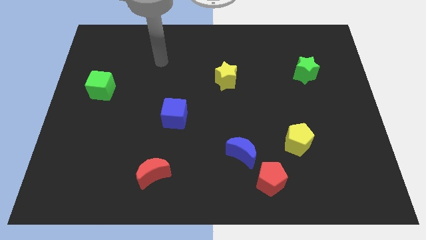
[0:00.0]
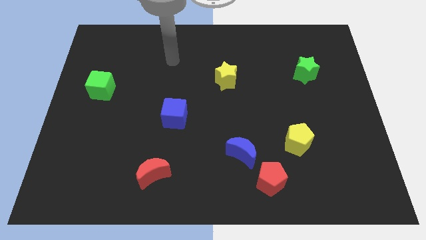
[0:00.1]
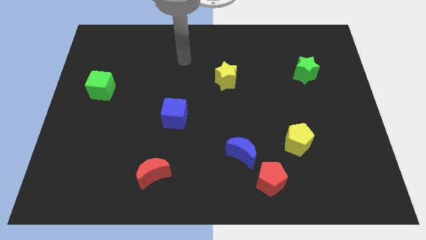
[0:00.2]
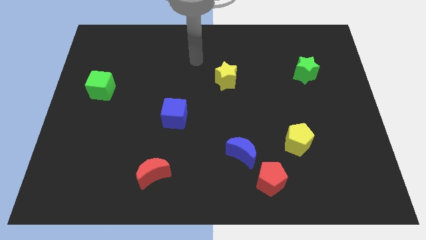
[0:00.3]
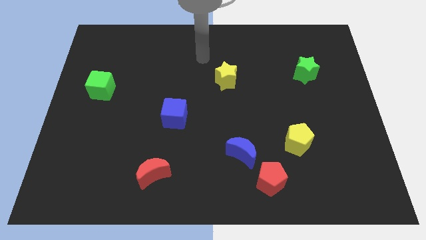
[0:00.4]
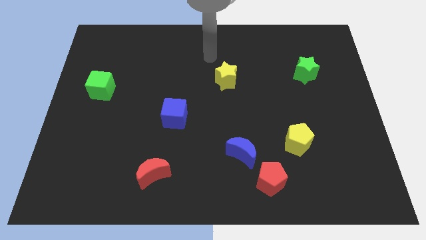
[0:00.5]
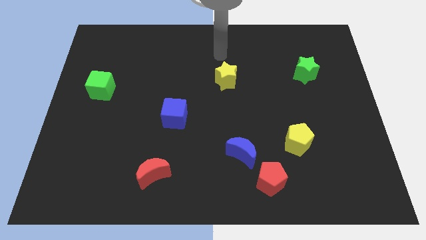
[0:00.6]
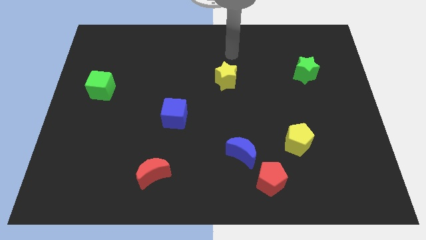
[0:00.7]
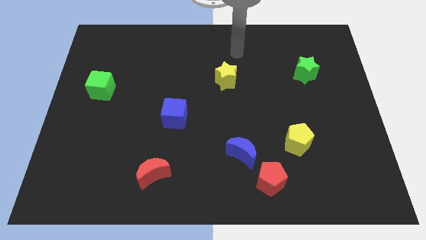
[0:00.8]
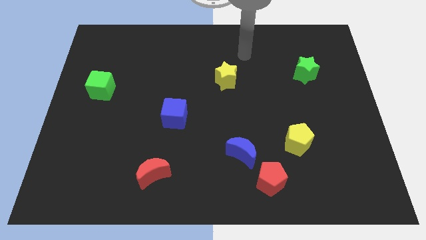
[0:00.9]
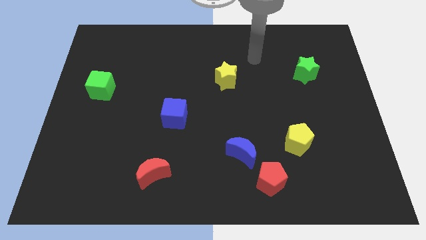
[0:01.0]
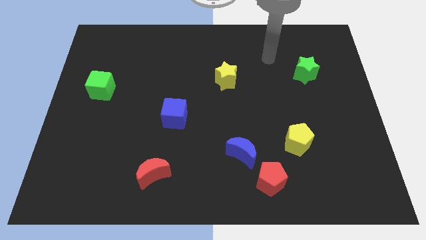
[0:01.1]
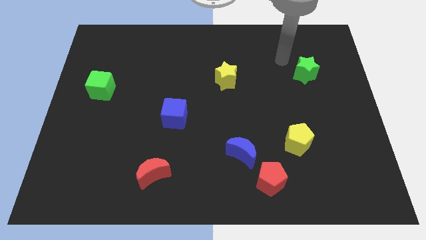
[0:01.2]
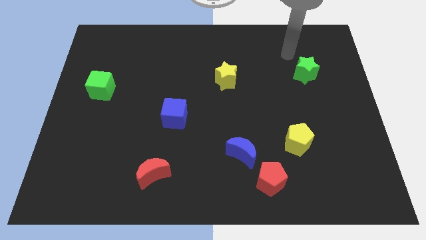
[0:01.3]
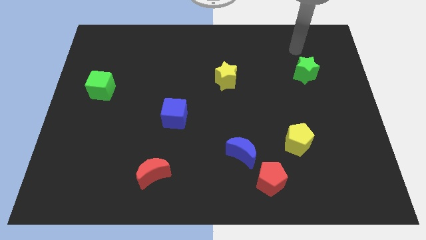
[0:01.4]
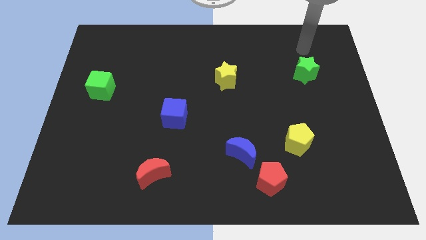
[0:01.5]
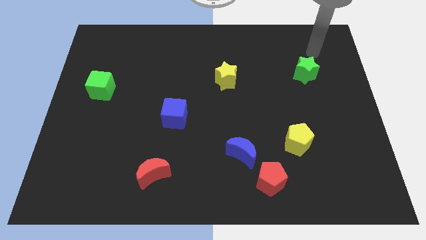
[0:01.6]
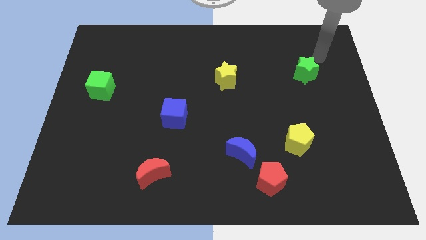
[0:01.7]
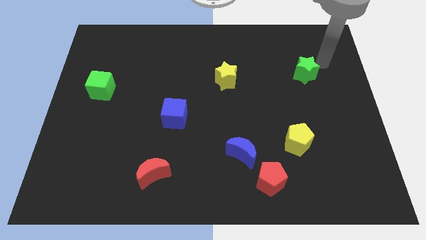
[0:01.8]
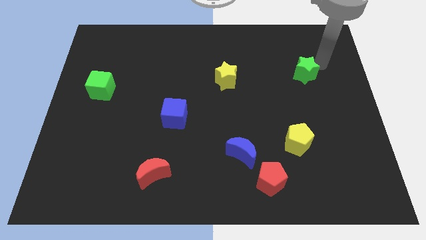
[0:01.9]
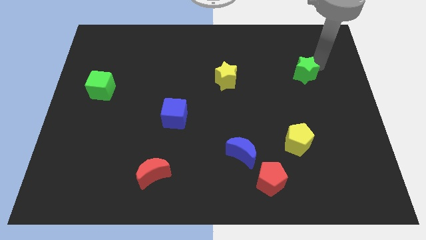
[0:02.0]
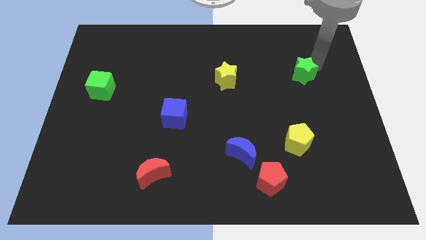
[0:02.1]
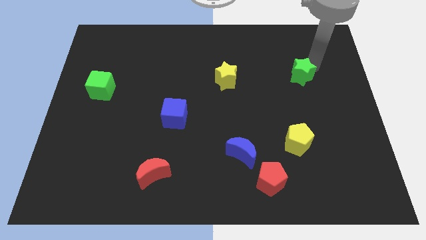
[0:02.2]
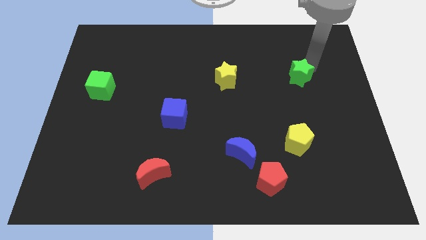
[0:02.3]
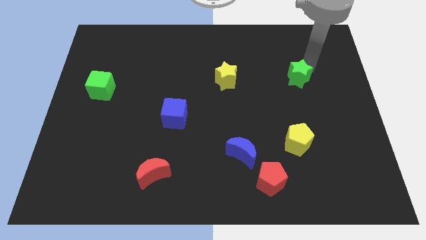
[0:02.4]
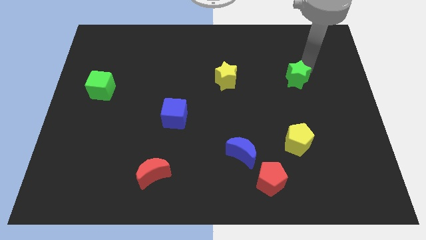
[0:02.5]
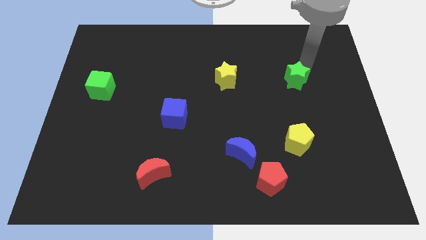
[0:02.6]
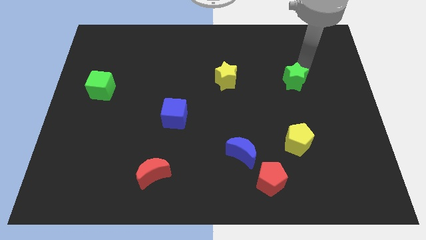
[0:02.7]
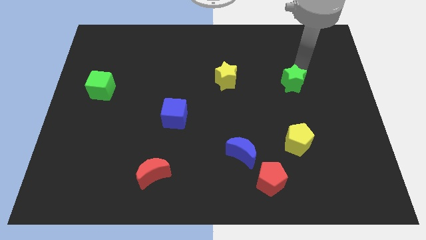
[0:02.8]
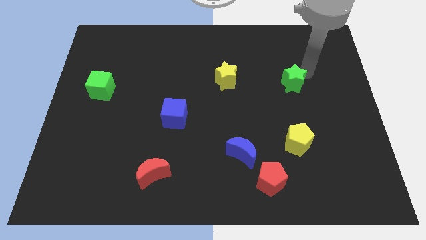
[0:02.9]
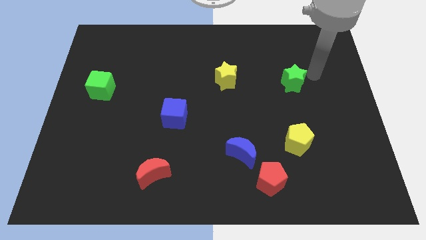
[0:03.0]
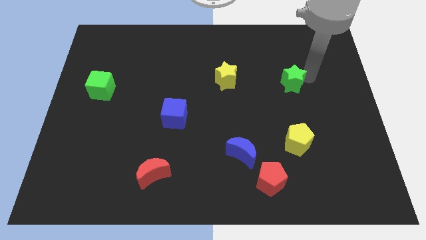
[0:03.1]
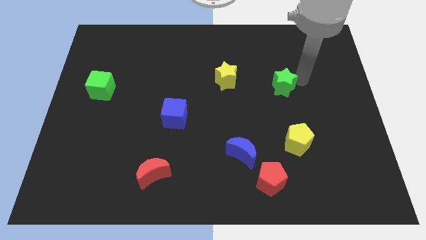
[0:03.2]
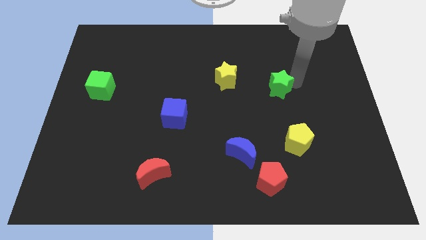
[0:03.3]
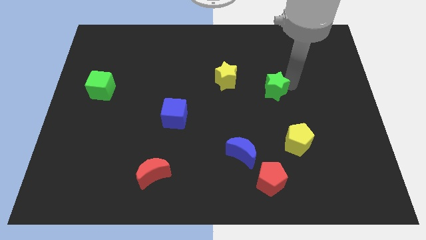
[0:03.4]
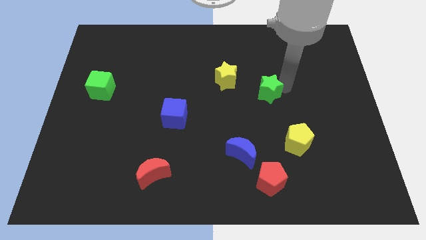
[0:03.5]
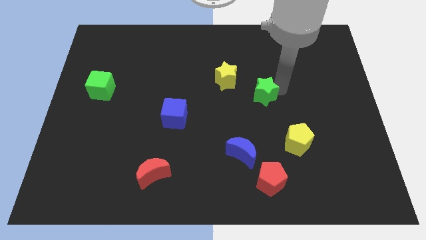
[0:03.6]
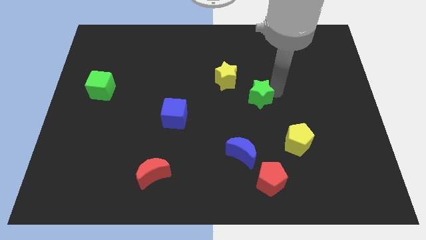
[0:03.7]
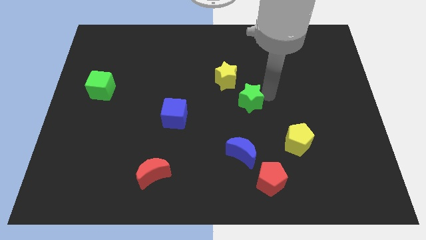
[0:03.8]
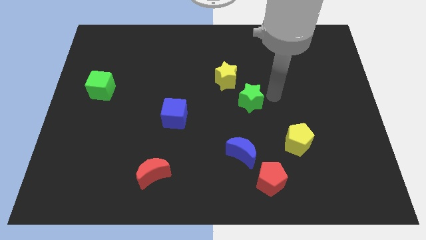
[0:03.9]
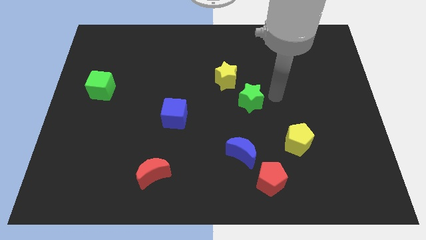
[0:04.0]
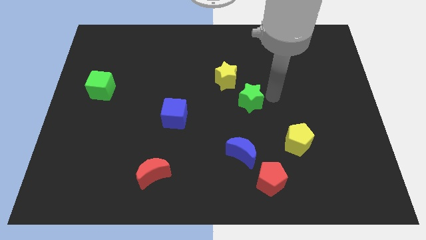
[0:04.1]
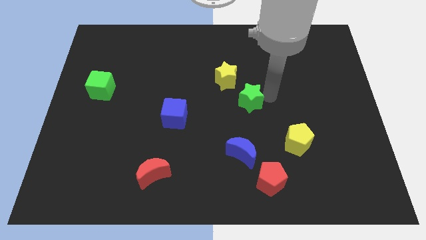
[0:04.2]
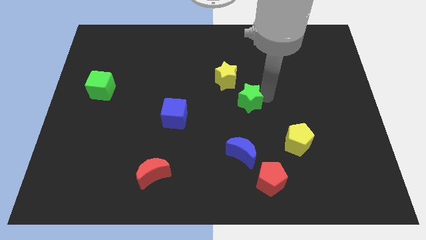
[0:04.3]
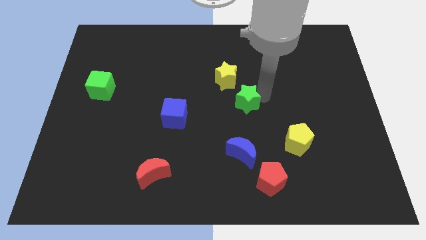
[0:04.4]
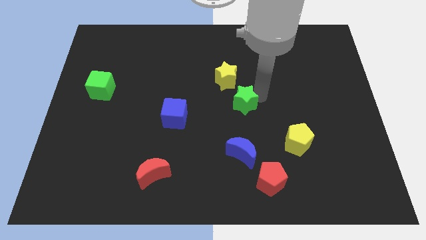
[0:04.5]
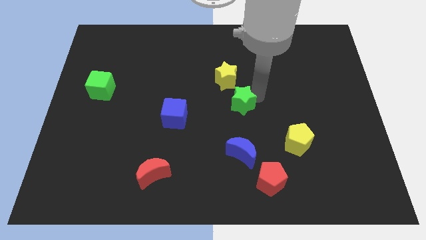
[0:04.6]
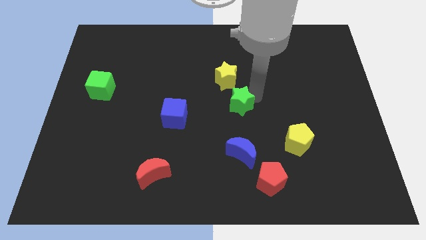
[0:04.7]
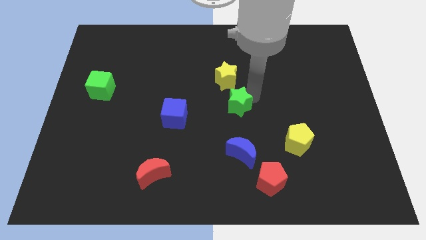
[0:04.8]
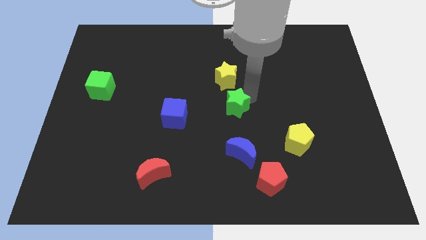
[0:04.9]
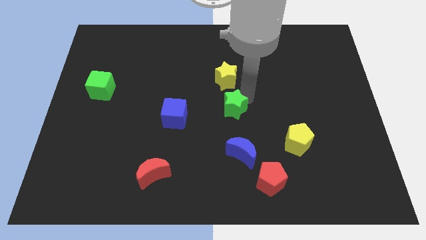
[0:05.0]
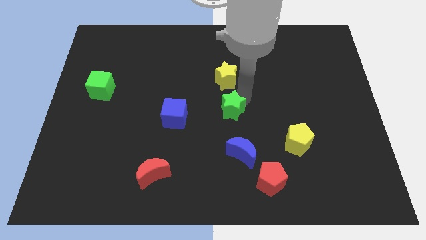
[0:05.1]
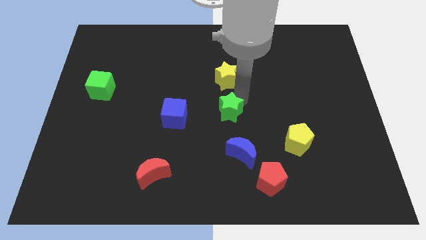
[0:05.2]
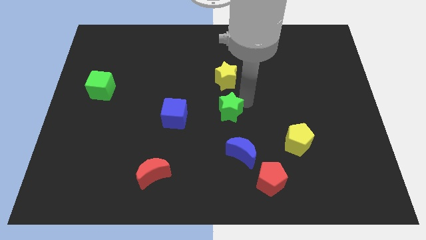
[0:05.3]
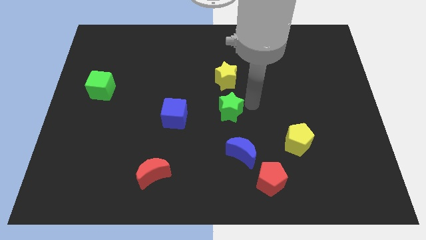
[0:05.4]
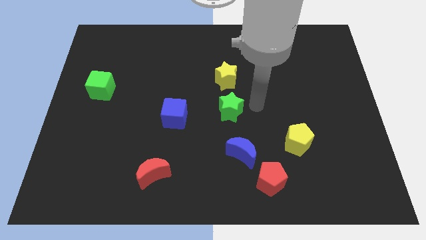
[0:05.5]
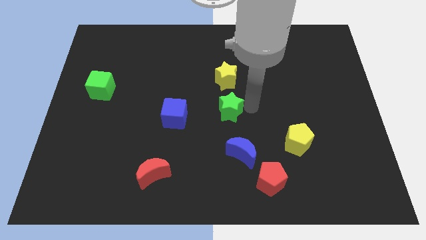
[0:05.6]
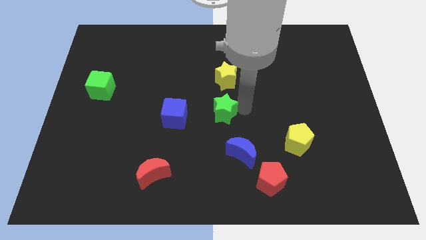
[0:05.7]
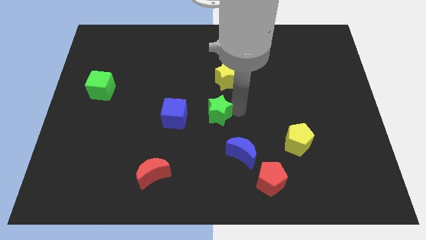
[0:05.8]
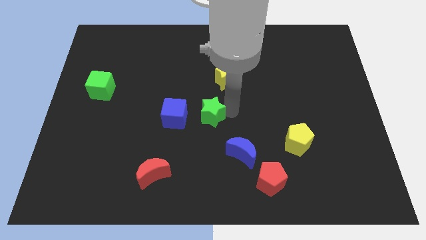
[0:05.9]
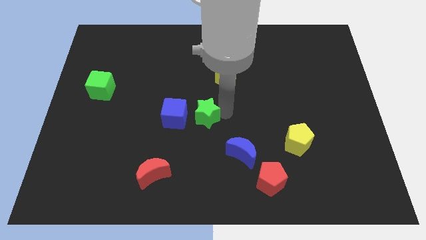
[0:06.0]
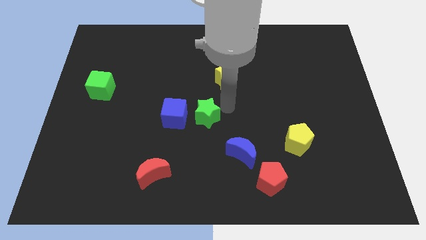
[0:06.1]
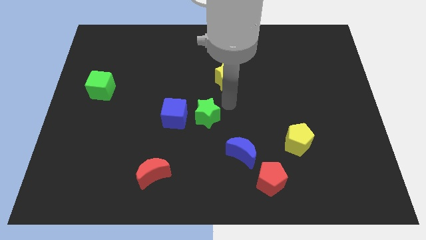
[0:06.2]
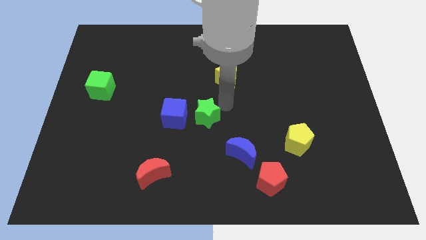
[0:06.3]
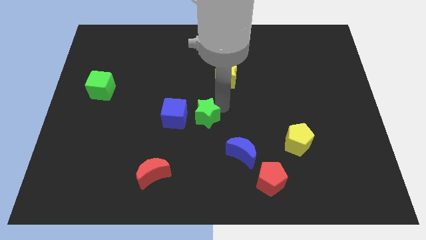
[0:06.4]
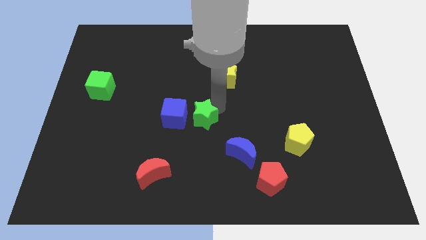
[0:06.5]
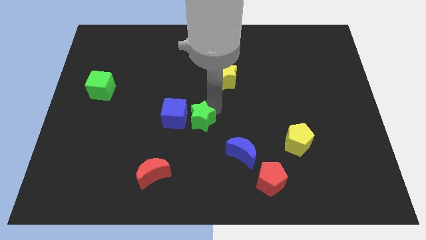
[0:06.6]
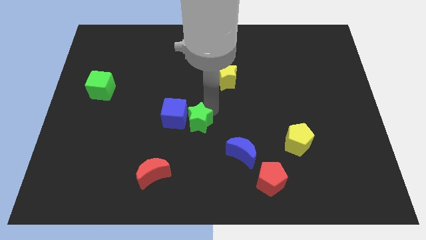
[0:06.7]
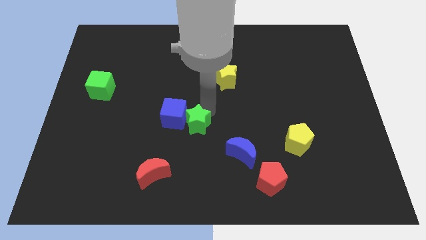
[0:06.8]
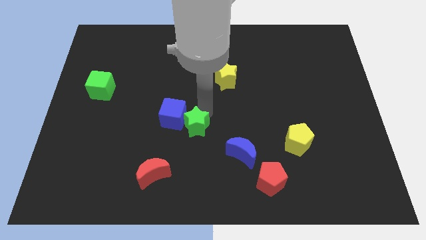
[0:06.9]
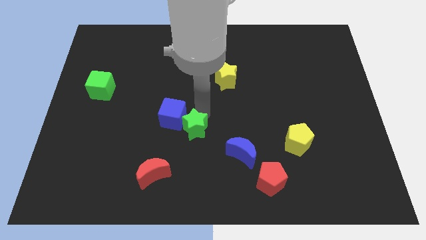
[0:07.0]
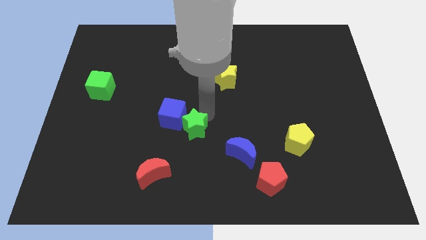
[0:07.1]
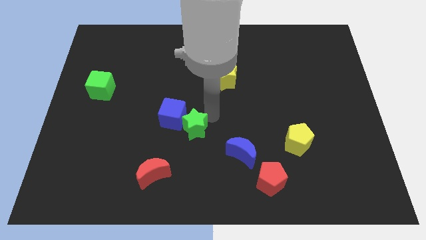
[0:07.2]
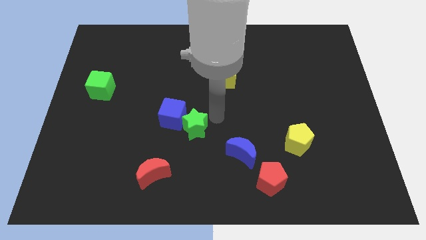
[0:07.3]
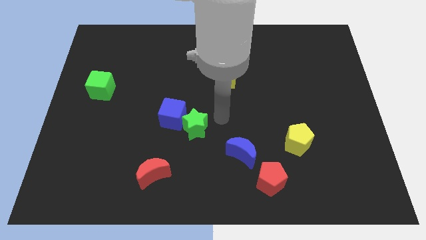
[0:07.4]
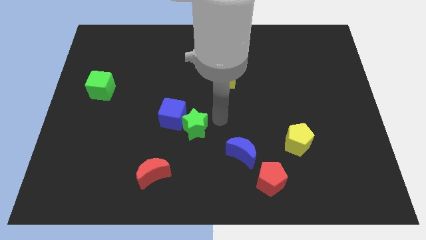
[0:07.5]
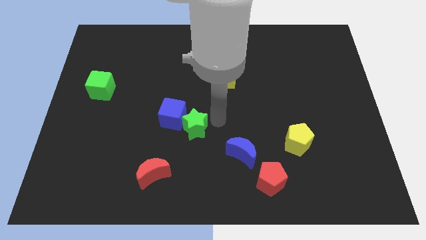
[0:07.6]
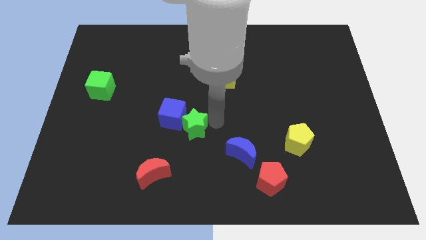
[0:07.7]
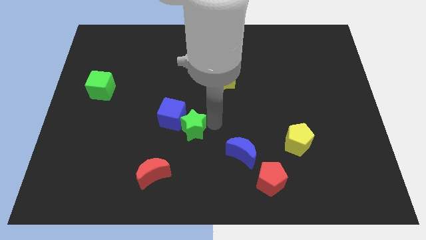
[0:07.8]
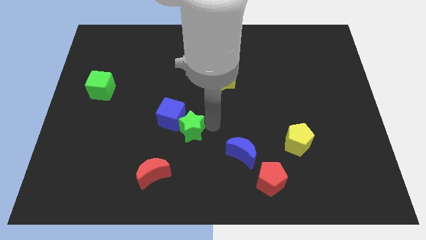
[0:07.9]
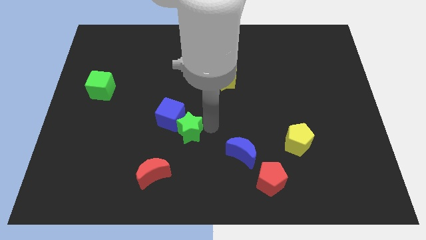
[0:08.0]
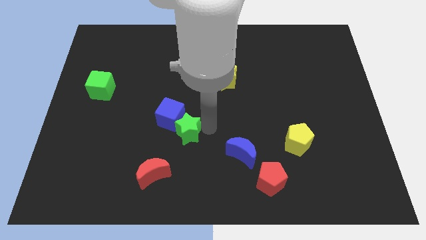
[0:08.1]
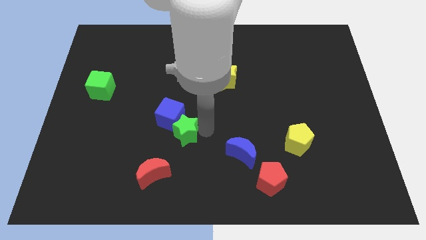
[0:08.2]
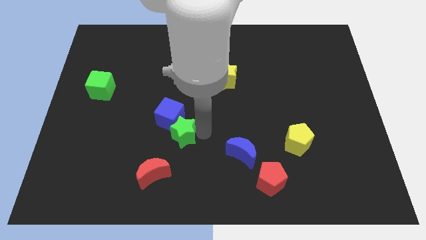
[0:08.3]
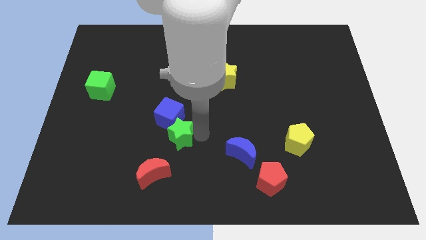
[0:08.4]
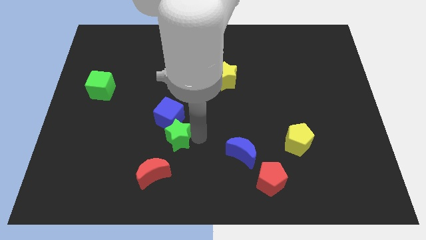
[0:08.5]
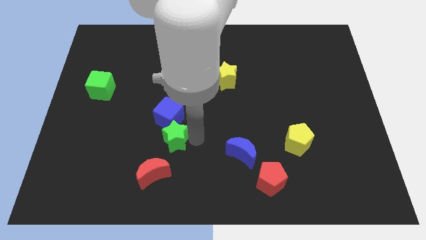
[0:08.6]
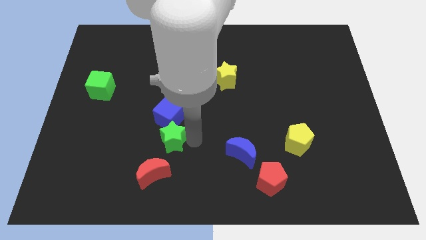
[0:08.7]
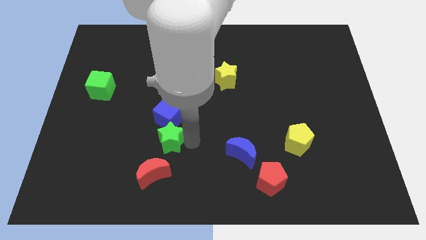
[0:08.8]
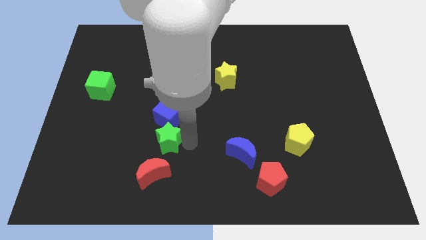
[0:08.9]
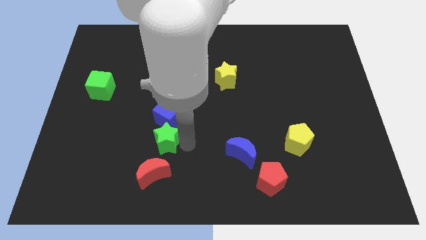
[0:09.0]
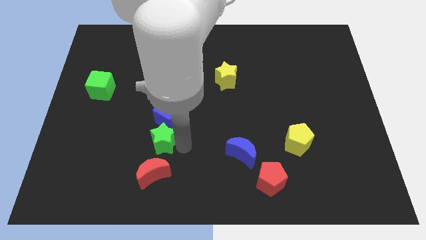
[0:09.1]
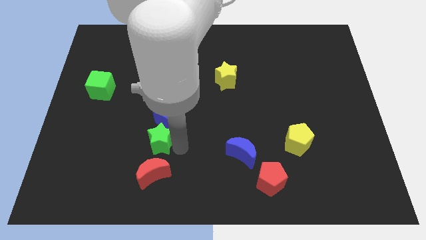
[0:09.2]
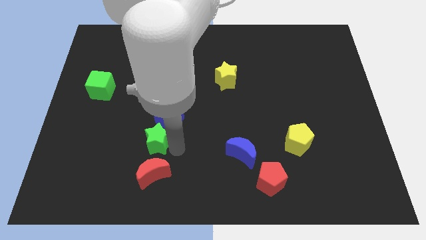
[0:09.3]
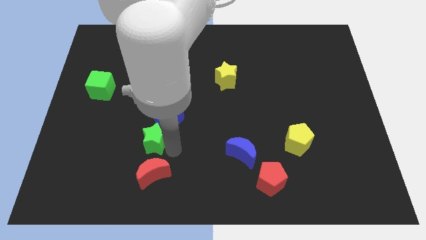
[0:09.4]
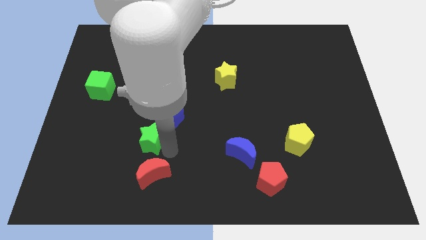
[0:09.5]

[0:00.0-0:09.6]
push the green star to the top left of the red moon
